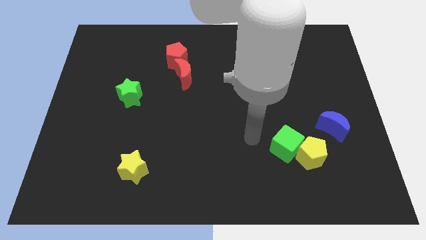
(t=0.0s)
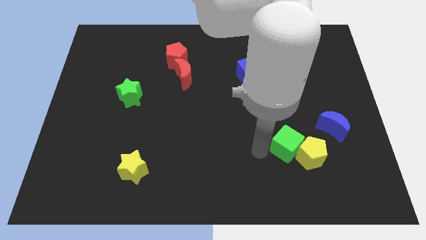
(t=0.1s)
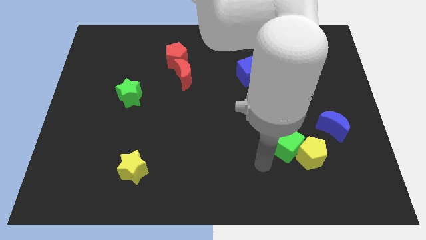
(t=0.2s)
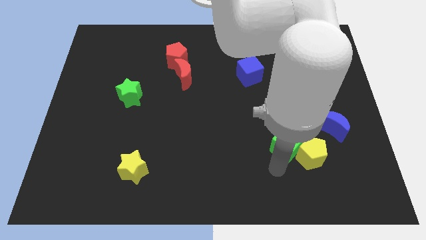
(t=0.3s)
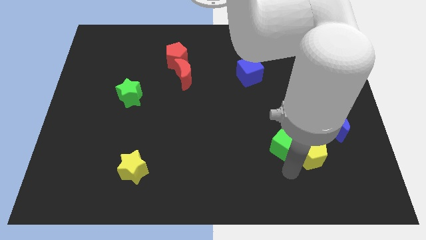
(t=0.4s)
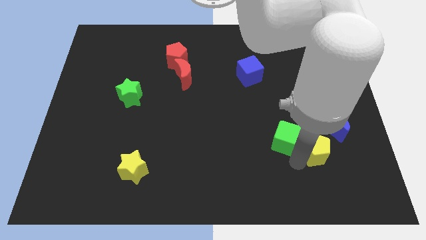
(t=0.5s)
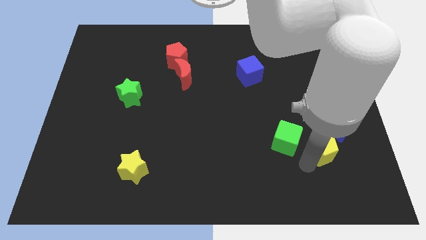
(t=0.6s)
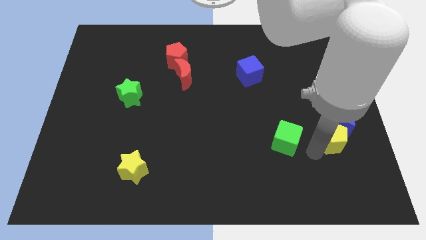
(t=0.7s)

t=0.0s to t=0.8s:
move the green cube away from the yellow pentagon

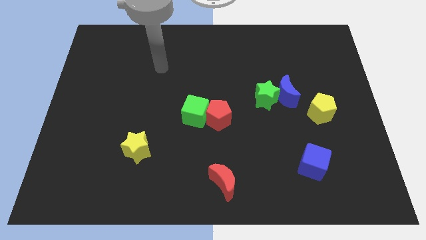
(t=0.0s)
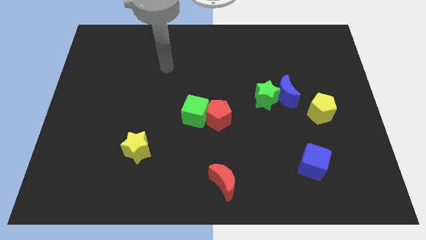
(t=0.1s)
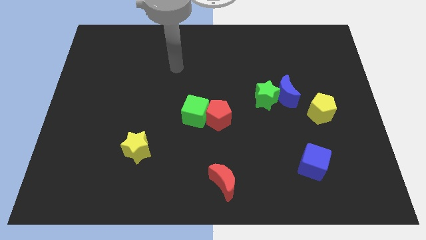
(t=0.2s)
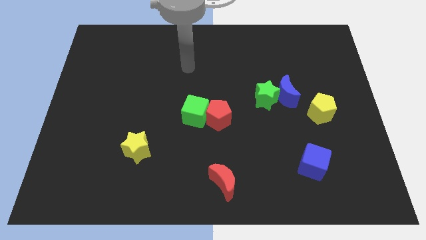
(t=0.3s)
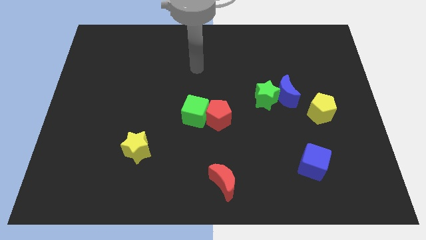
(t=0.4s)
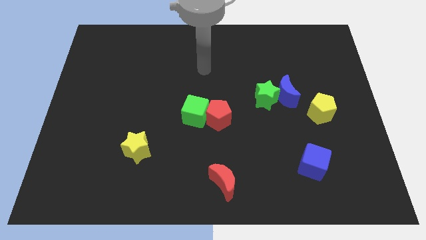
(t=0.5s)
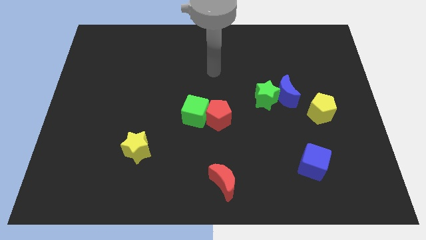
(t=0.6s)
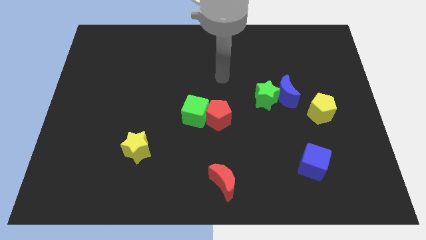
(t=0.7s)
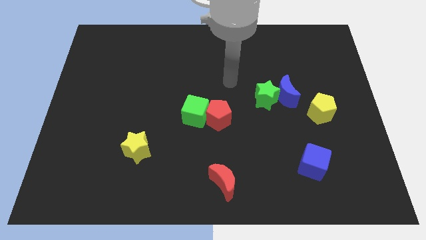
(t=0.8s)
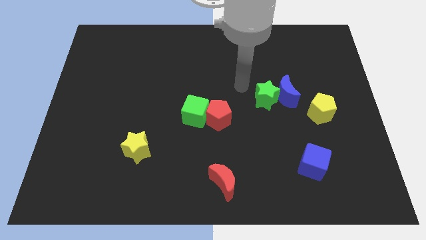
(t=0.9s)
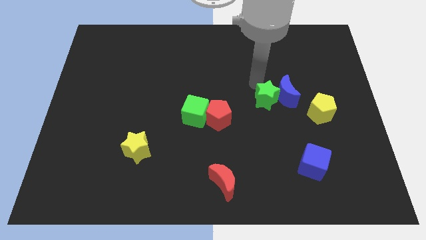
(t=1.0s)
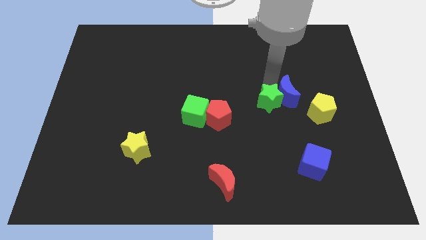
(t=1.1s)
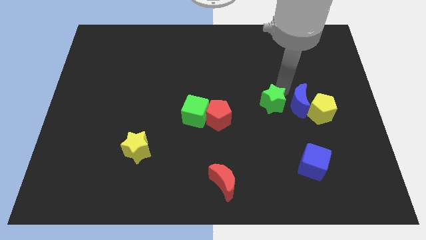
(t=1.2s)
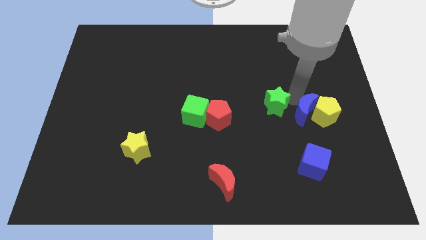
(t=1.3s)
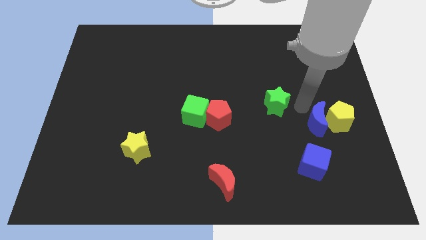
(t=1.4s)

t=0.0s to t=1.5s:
separate the green star from the blue moon

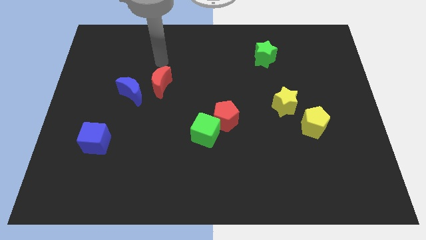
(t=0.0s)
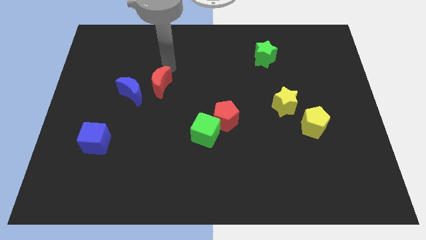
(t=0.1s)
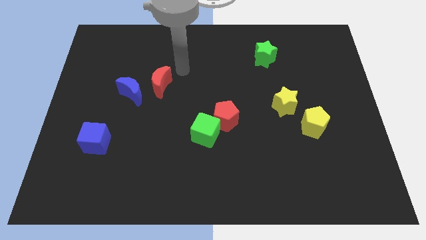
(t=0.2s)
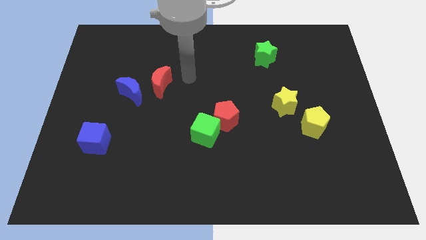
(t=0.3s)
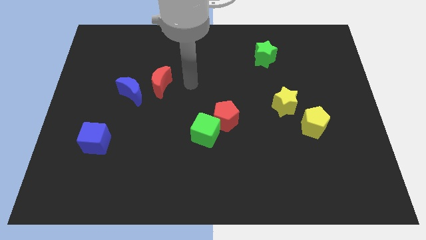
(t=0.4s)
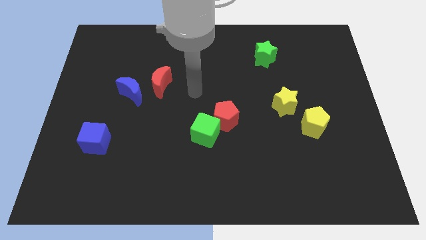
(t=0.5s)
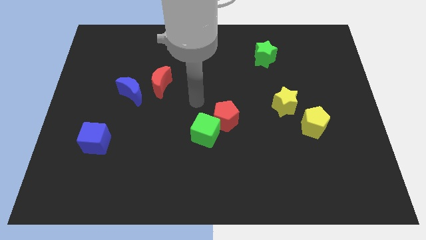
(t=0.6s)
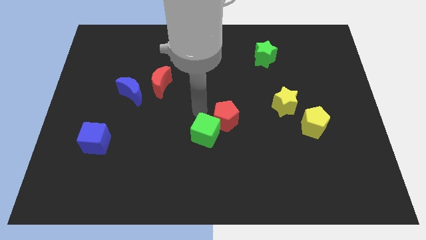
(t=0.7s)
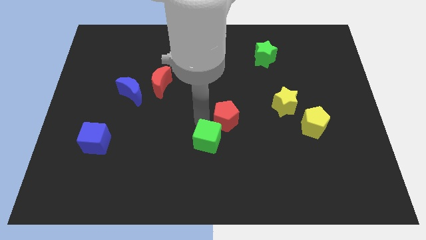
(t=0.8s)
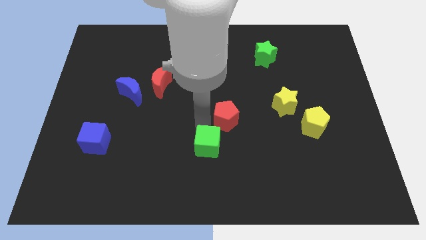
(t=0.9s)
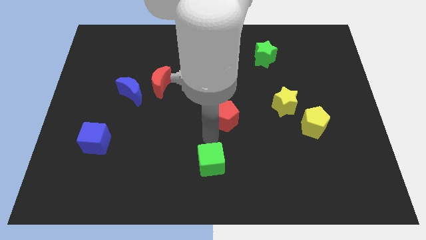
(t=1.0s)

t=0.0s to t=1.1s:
pull the red pentagon apart from the green cube

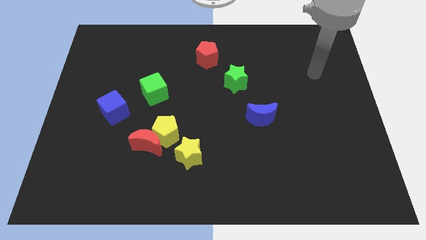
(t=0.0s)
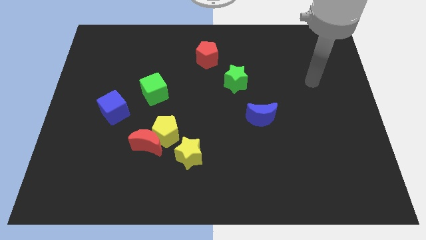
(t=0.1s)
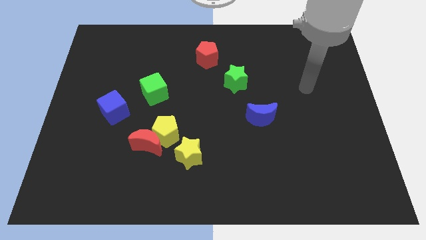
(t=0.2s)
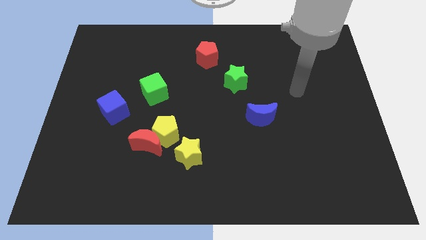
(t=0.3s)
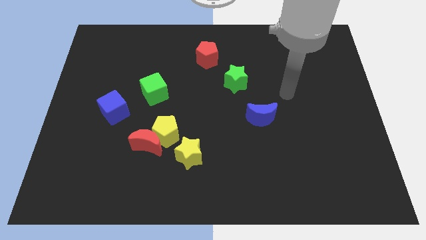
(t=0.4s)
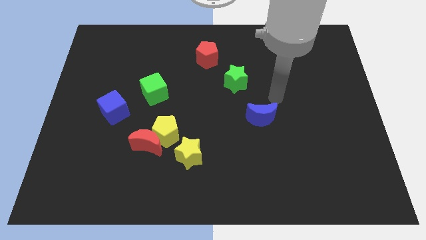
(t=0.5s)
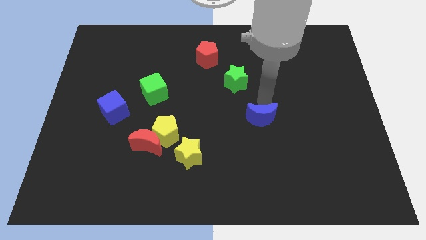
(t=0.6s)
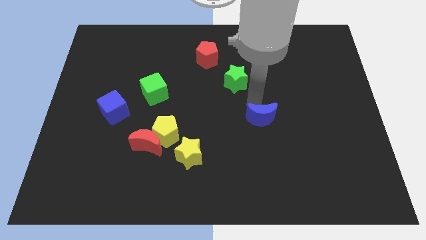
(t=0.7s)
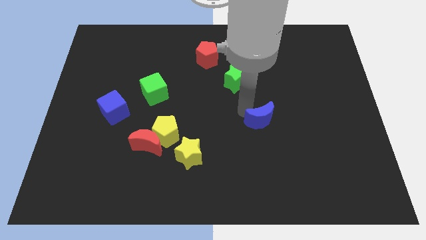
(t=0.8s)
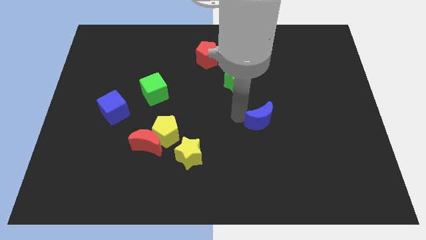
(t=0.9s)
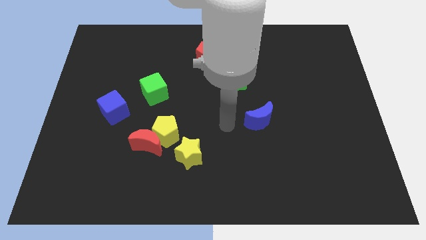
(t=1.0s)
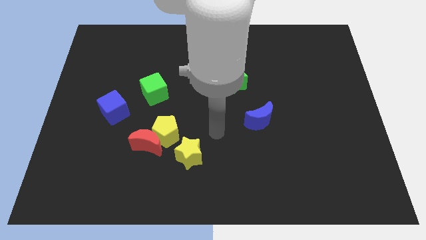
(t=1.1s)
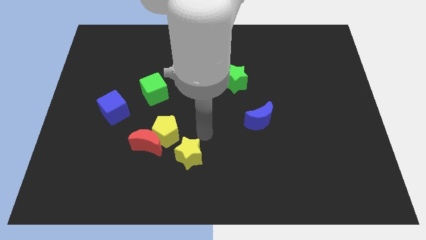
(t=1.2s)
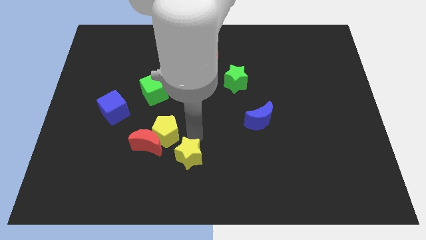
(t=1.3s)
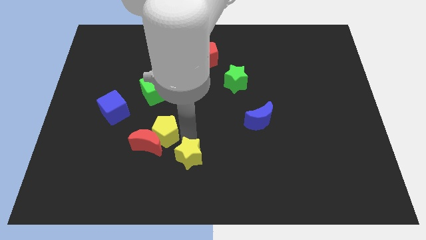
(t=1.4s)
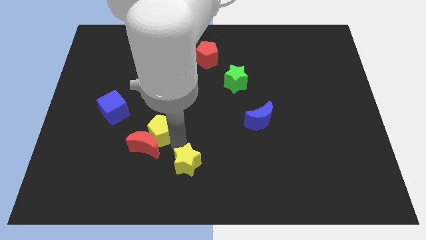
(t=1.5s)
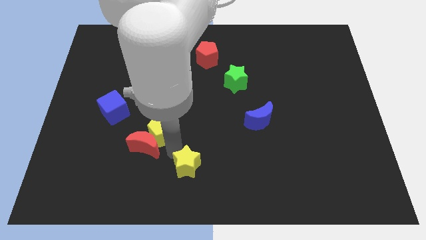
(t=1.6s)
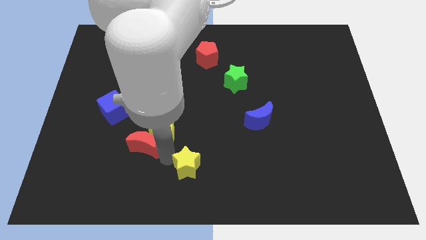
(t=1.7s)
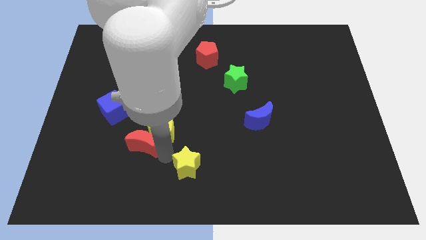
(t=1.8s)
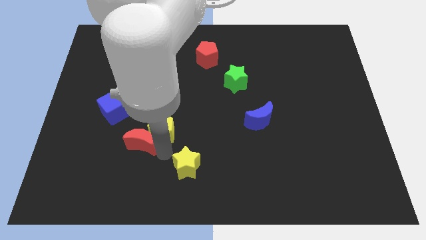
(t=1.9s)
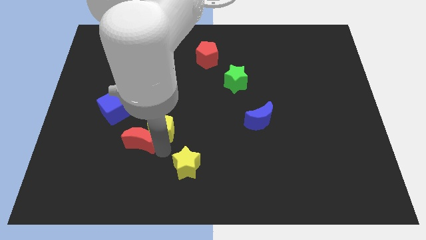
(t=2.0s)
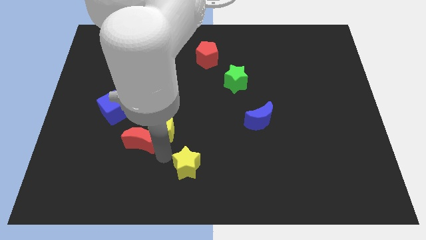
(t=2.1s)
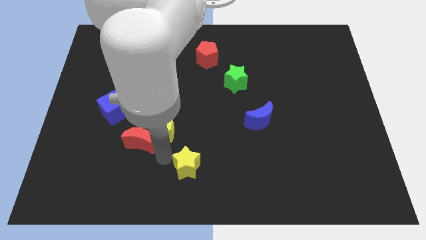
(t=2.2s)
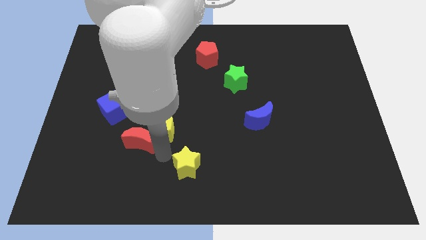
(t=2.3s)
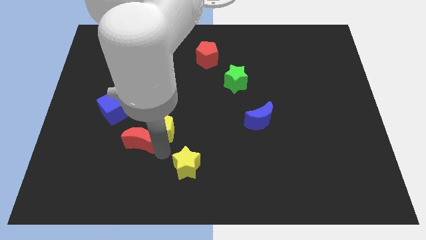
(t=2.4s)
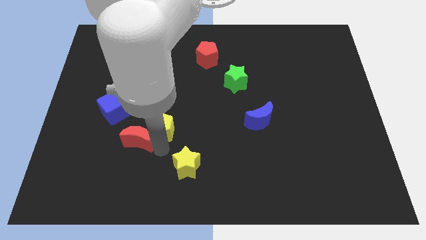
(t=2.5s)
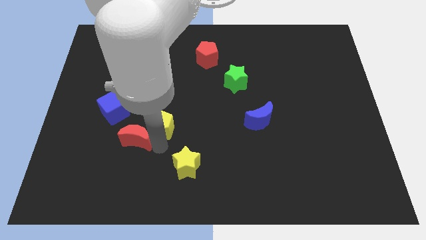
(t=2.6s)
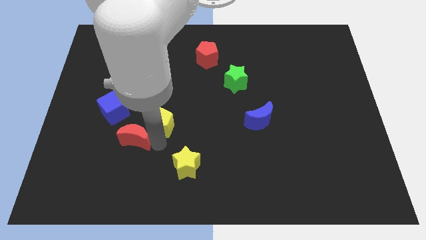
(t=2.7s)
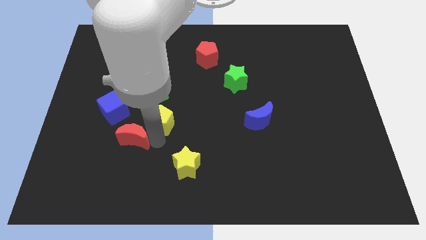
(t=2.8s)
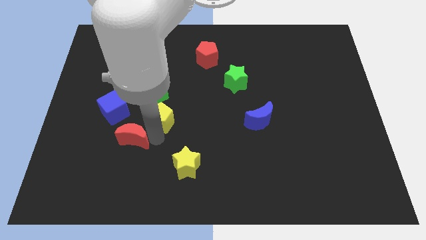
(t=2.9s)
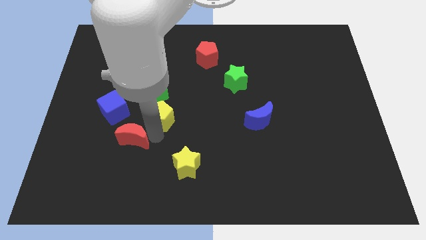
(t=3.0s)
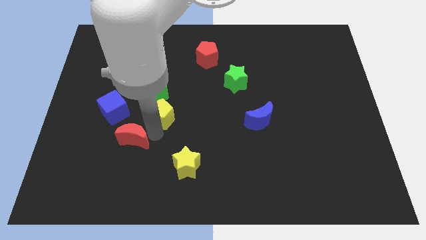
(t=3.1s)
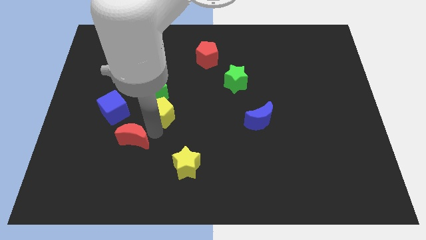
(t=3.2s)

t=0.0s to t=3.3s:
pull the yellow pentagon apart from the red moon and yellow star

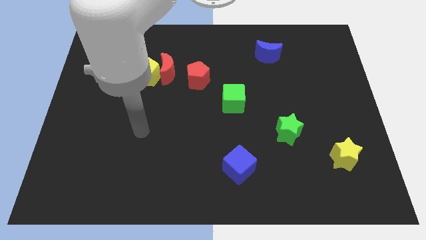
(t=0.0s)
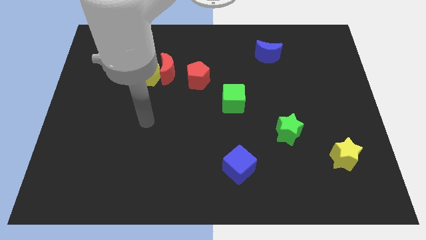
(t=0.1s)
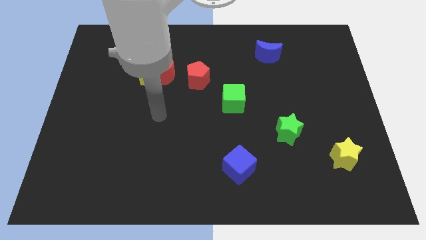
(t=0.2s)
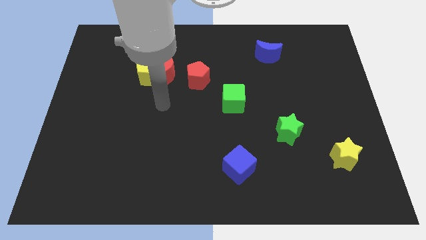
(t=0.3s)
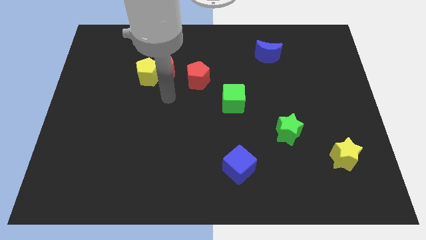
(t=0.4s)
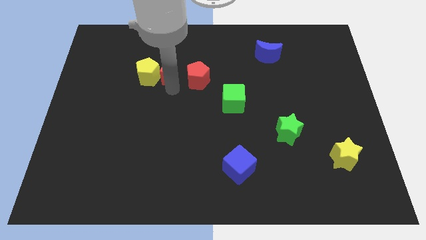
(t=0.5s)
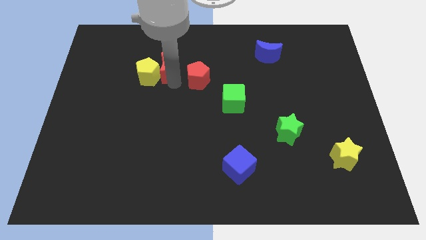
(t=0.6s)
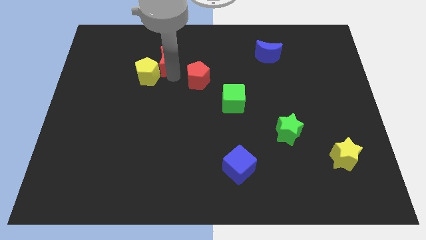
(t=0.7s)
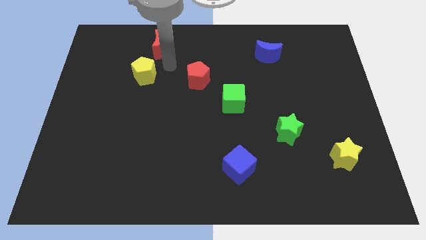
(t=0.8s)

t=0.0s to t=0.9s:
pull the yellow pentagon apart from the red moon

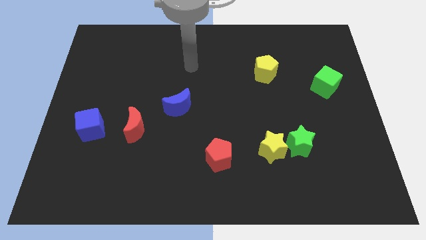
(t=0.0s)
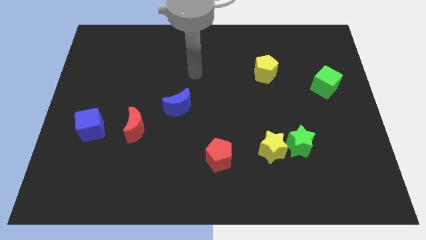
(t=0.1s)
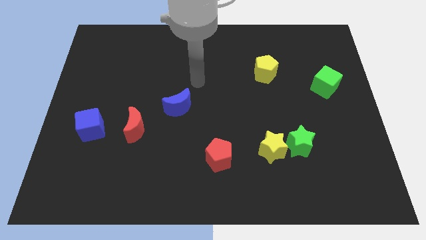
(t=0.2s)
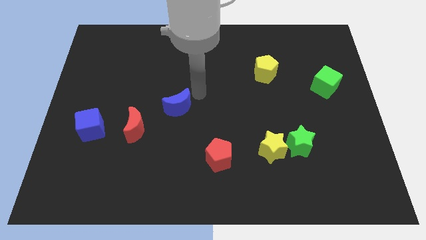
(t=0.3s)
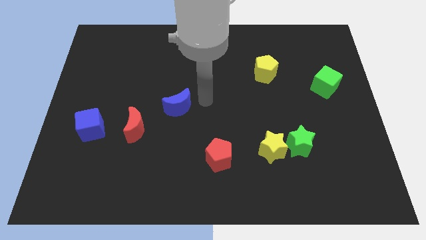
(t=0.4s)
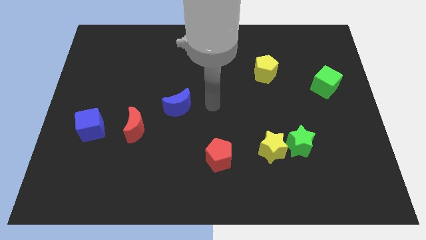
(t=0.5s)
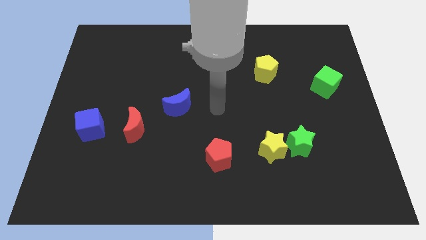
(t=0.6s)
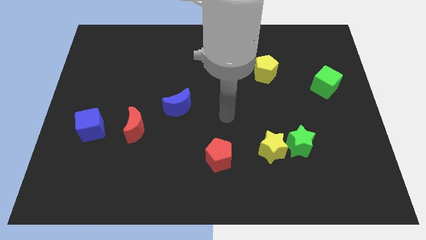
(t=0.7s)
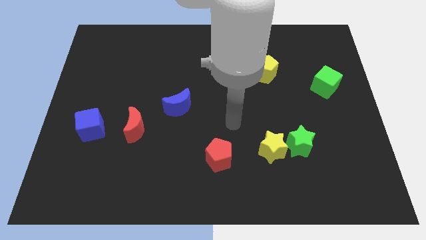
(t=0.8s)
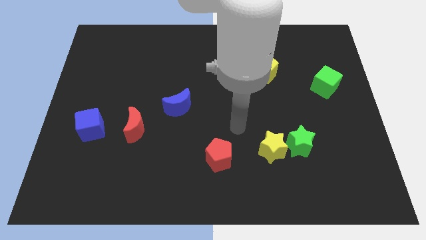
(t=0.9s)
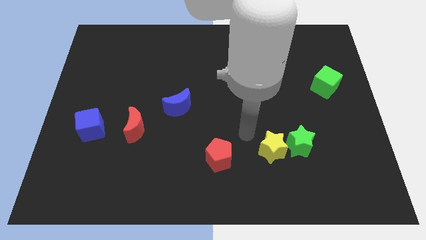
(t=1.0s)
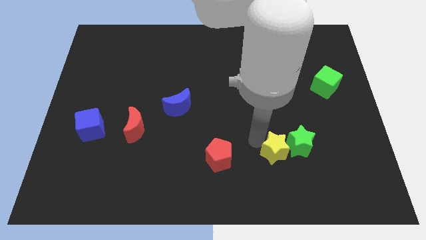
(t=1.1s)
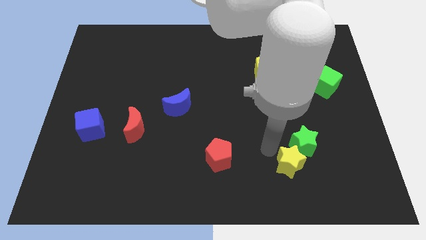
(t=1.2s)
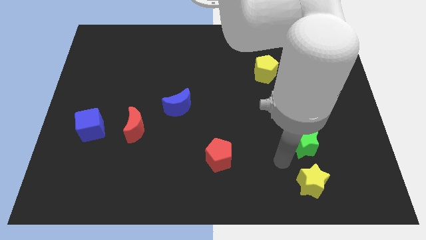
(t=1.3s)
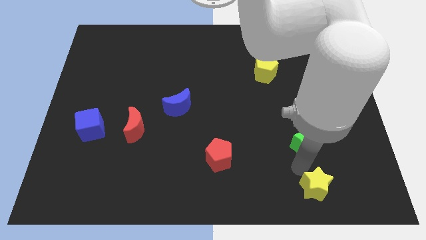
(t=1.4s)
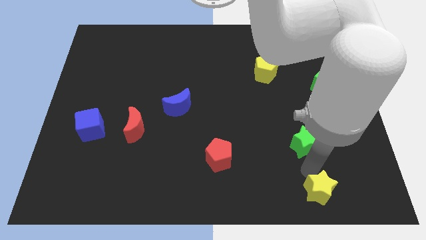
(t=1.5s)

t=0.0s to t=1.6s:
separate the green star from the yellow star
